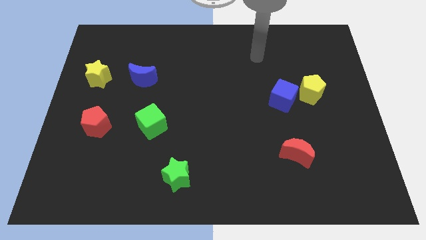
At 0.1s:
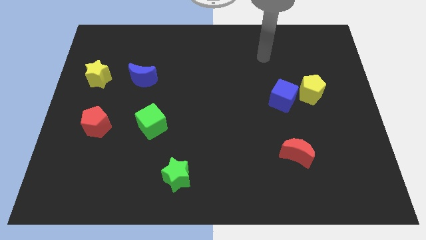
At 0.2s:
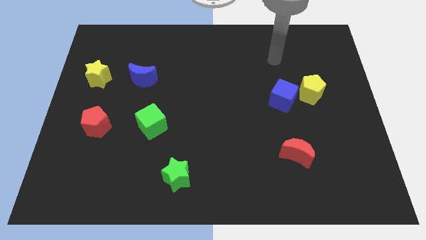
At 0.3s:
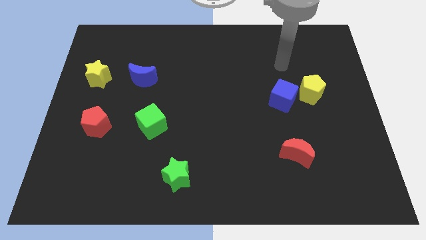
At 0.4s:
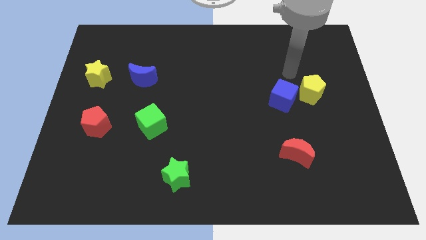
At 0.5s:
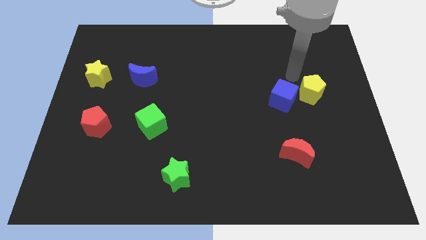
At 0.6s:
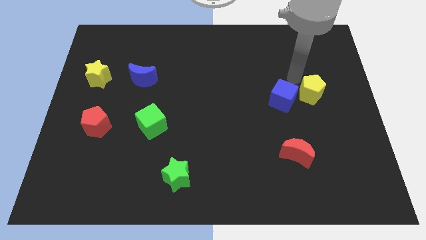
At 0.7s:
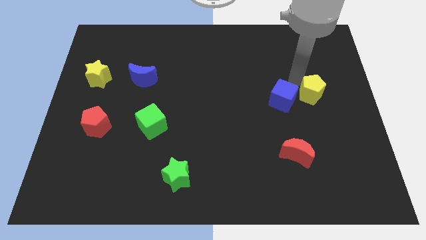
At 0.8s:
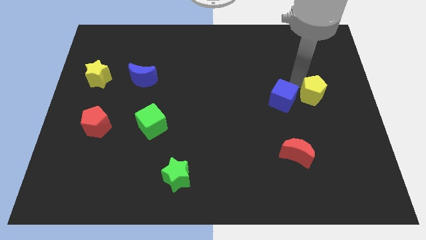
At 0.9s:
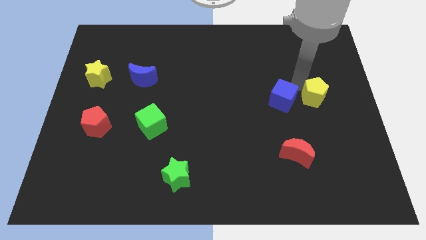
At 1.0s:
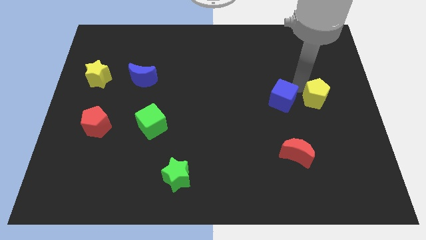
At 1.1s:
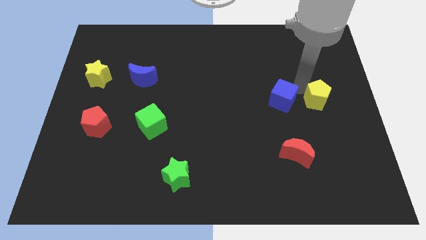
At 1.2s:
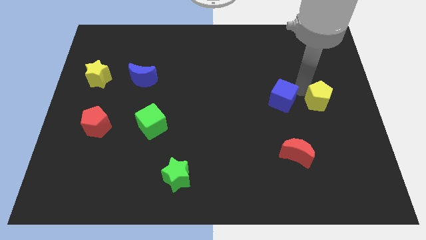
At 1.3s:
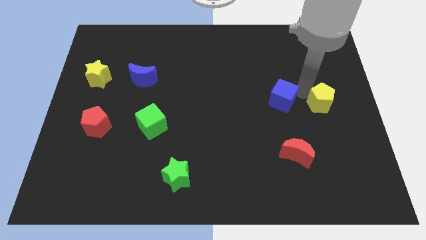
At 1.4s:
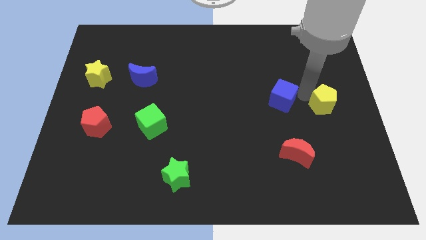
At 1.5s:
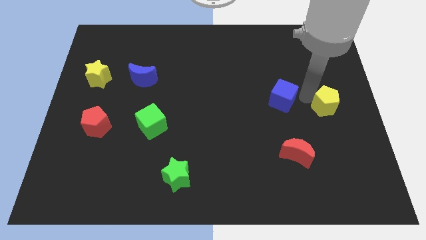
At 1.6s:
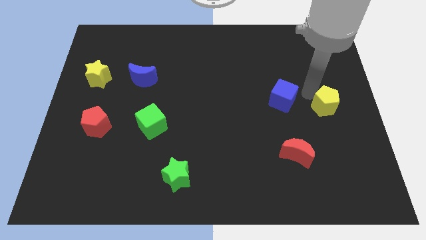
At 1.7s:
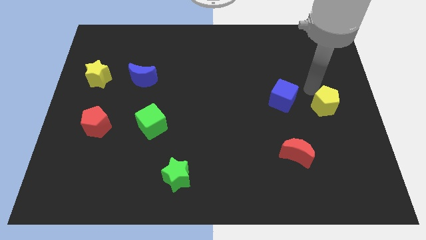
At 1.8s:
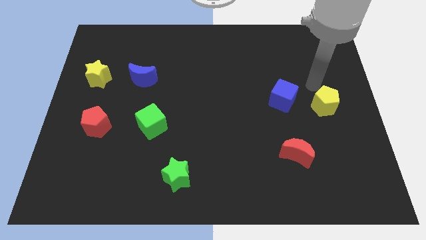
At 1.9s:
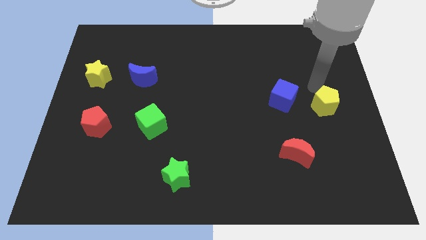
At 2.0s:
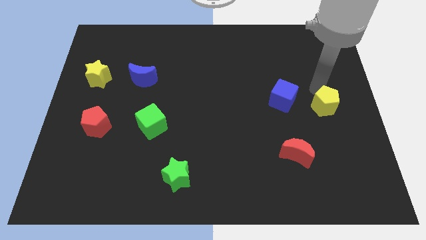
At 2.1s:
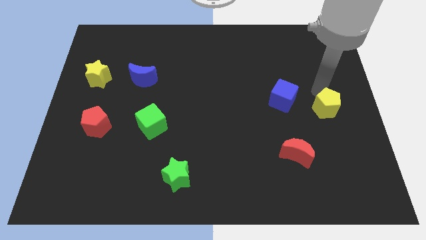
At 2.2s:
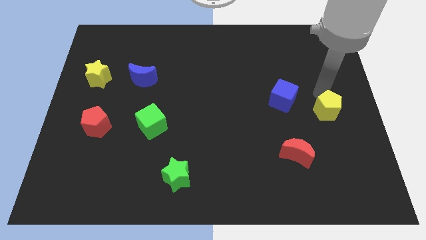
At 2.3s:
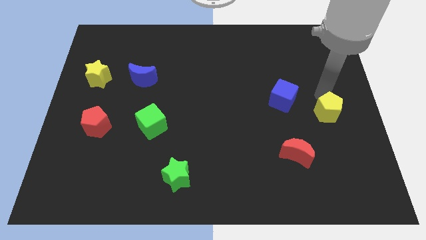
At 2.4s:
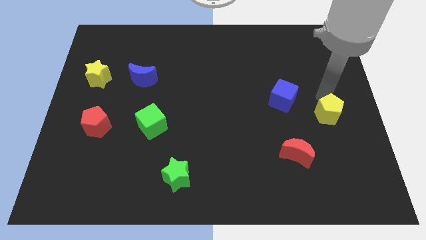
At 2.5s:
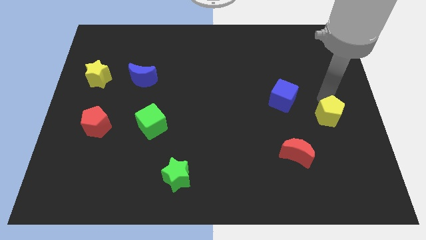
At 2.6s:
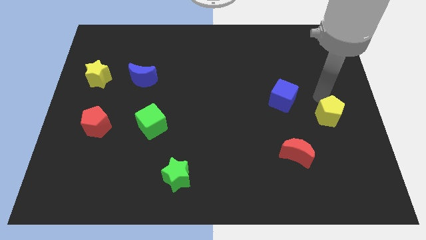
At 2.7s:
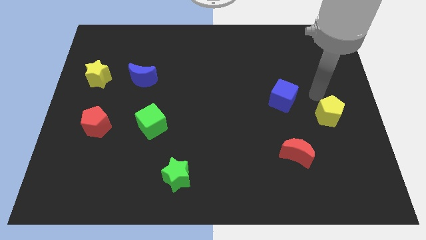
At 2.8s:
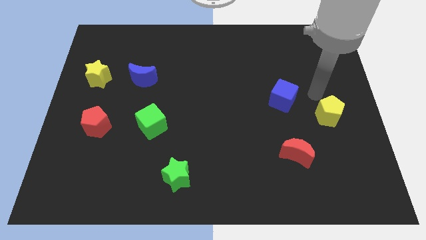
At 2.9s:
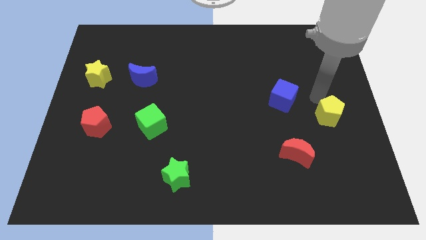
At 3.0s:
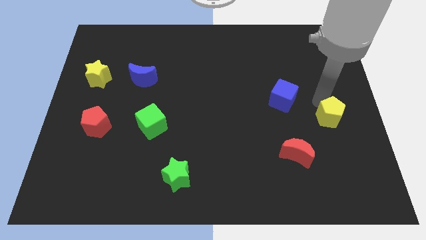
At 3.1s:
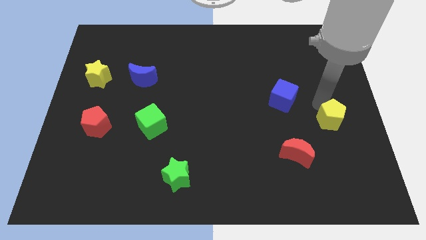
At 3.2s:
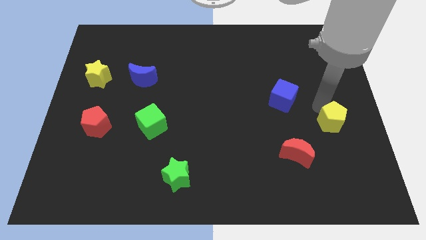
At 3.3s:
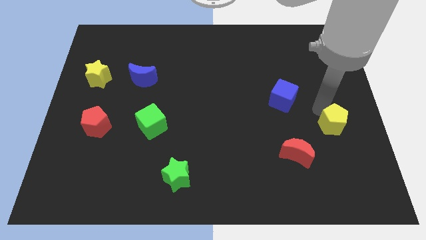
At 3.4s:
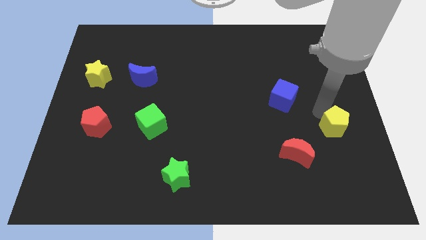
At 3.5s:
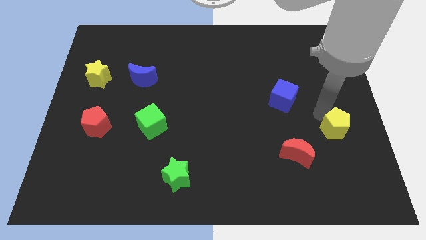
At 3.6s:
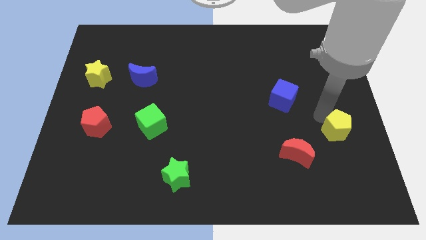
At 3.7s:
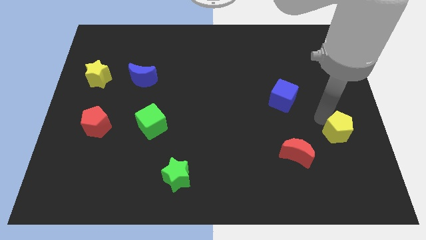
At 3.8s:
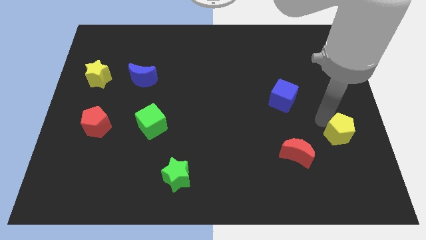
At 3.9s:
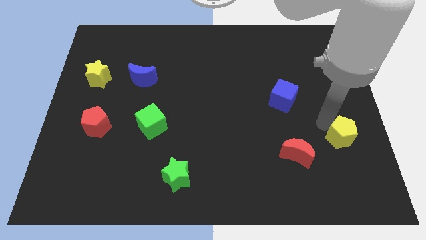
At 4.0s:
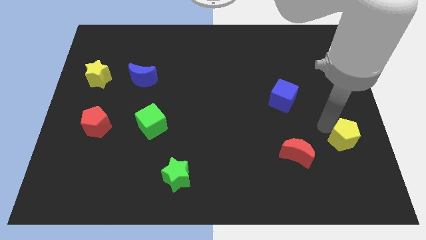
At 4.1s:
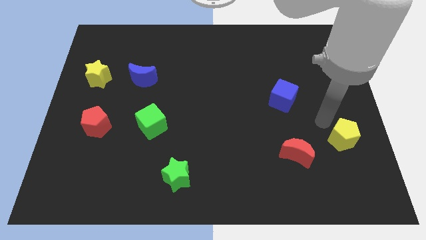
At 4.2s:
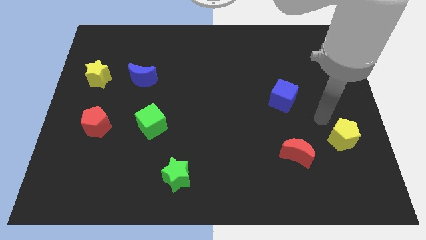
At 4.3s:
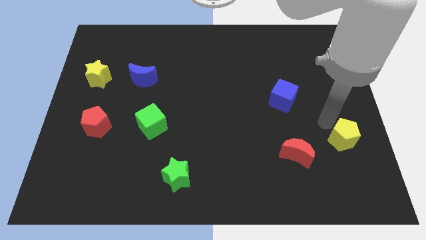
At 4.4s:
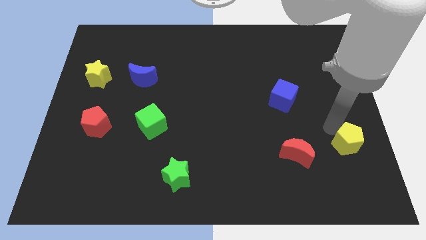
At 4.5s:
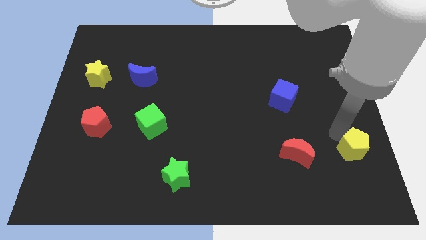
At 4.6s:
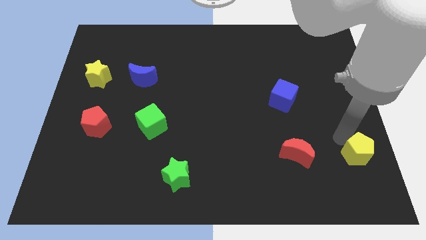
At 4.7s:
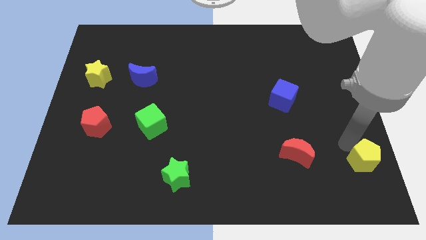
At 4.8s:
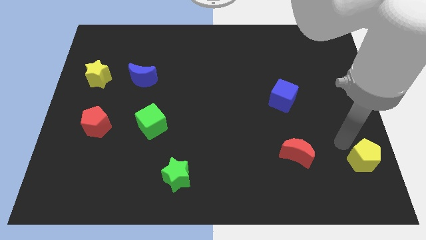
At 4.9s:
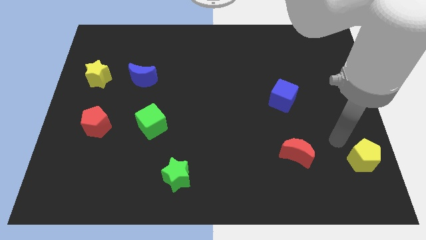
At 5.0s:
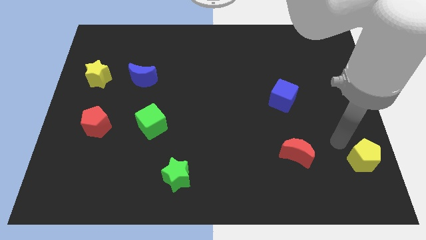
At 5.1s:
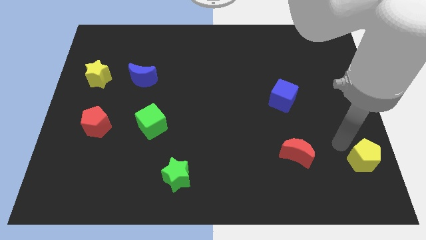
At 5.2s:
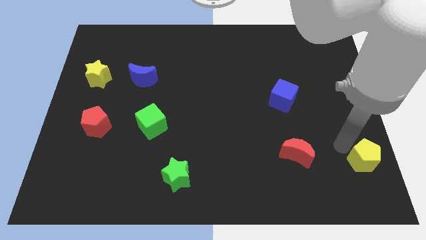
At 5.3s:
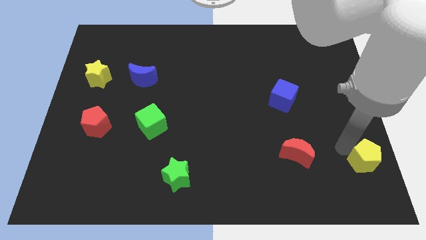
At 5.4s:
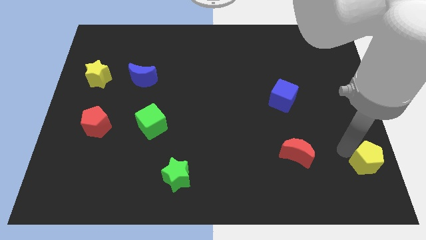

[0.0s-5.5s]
slide the yellow pentagon to the bottom right of the board

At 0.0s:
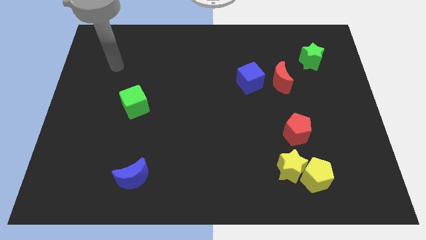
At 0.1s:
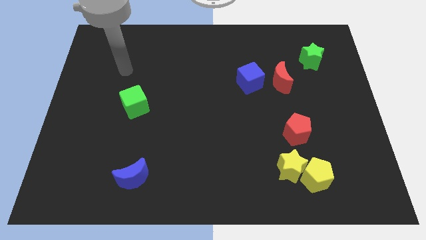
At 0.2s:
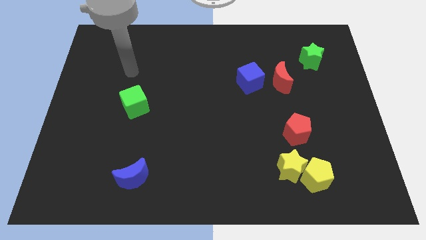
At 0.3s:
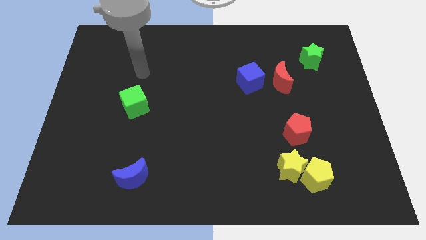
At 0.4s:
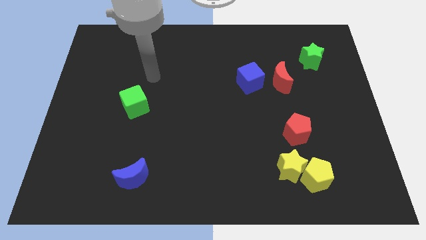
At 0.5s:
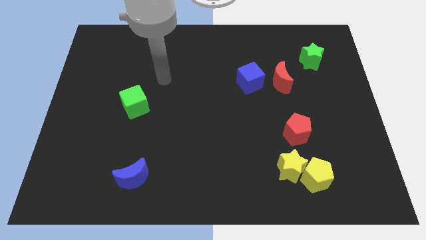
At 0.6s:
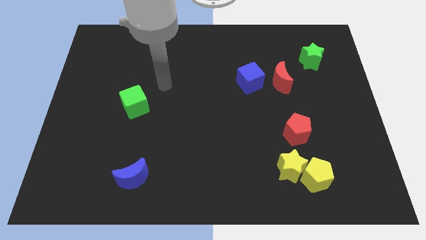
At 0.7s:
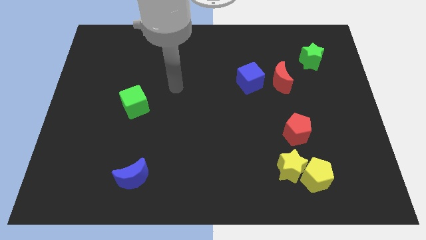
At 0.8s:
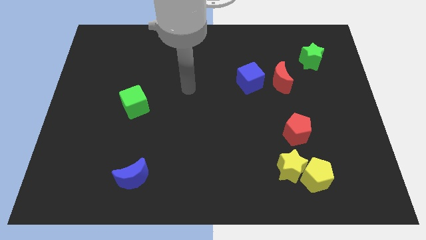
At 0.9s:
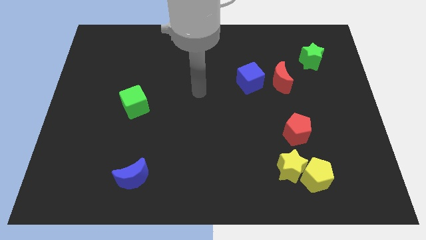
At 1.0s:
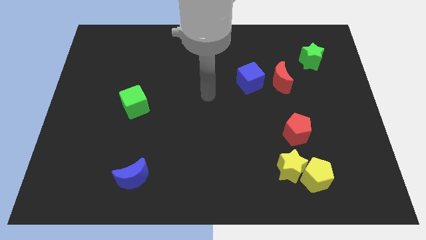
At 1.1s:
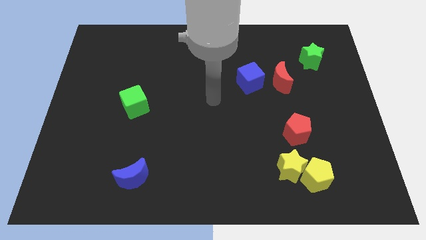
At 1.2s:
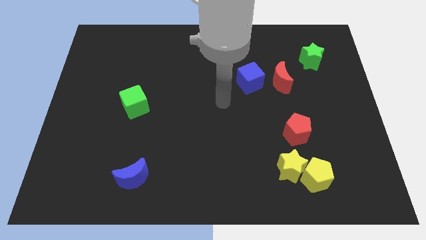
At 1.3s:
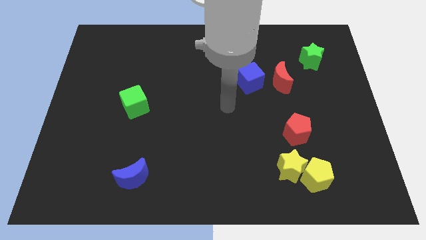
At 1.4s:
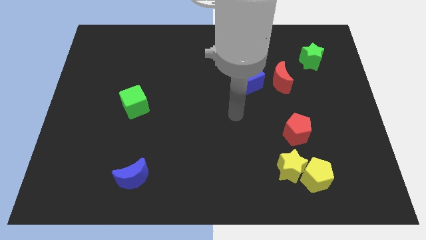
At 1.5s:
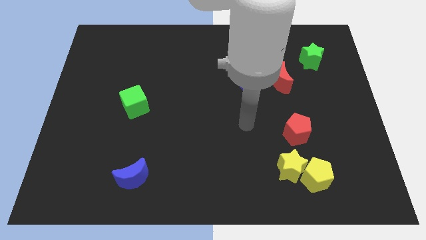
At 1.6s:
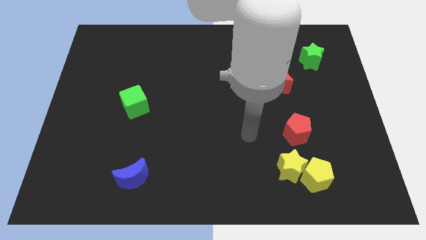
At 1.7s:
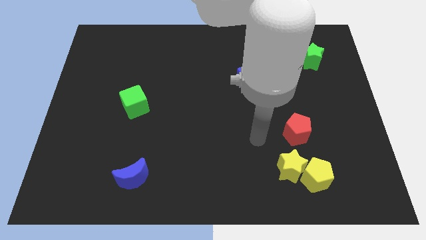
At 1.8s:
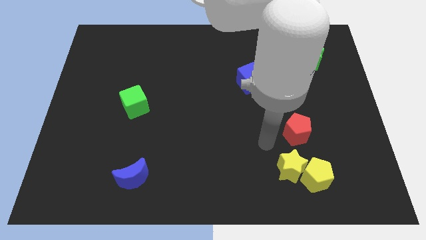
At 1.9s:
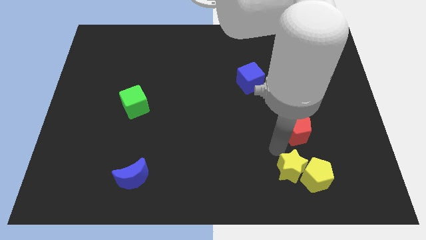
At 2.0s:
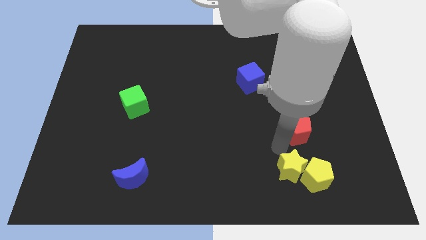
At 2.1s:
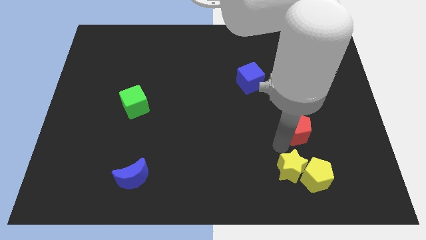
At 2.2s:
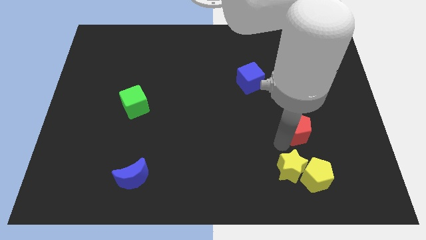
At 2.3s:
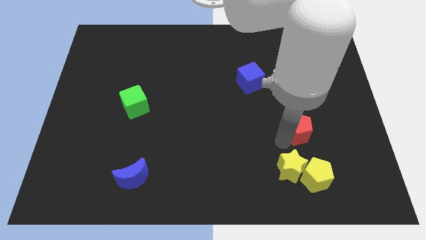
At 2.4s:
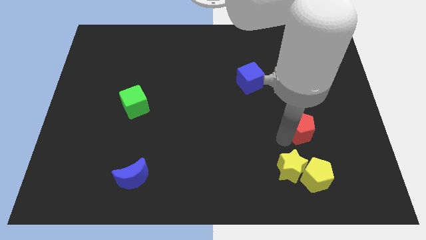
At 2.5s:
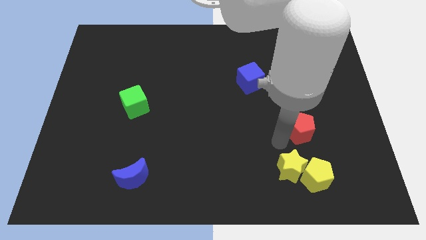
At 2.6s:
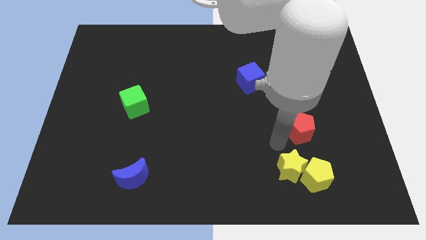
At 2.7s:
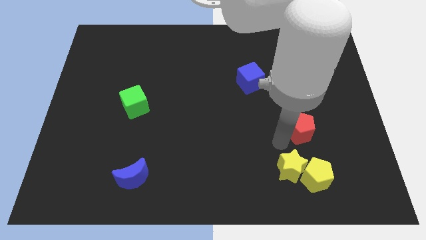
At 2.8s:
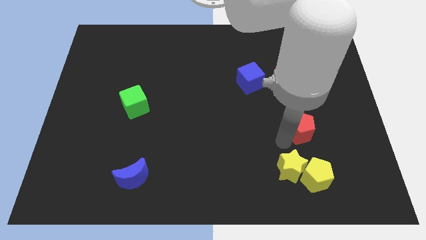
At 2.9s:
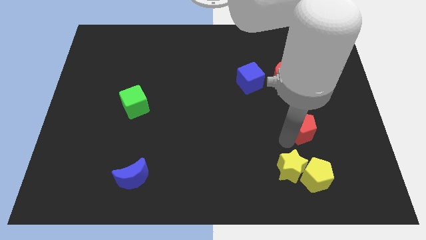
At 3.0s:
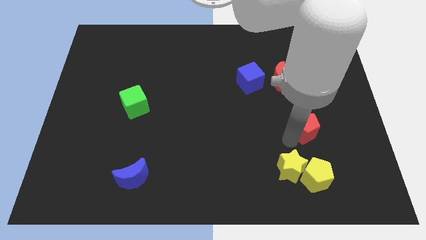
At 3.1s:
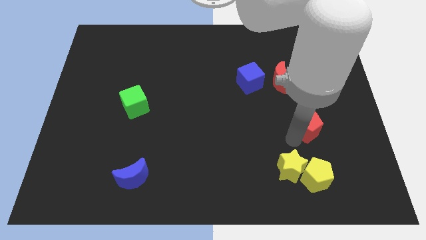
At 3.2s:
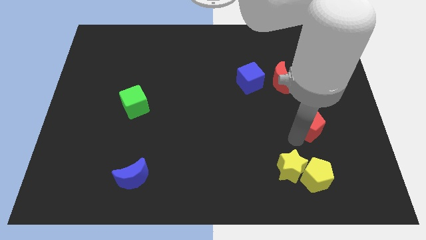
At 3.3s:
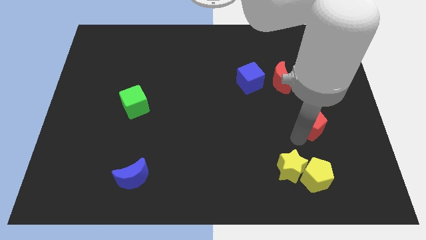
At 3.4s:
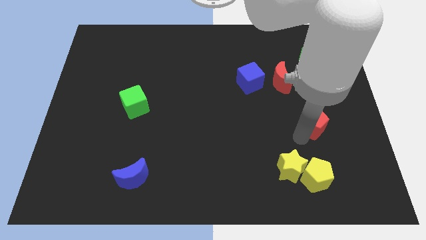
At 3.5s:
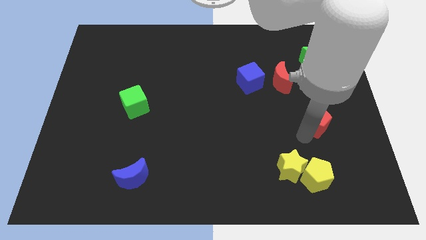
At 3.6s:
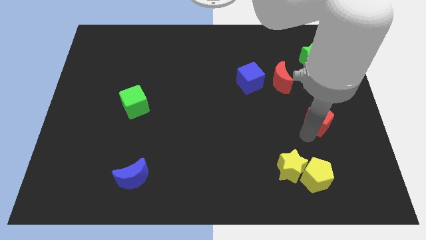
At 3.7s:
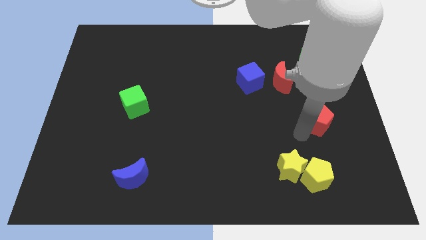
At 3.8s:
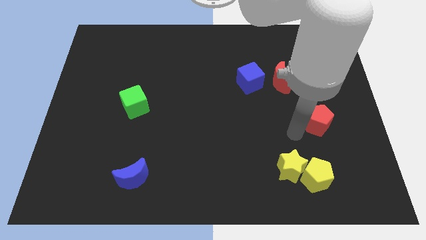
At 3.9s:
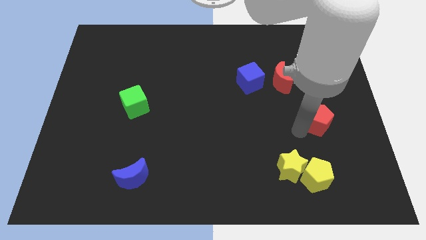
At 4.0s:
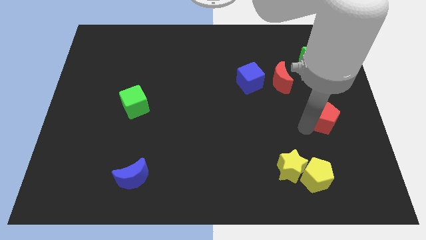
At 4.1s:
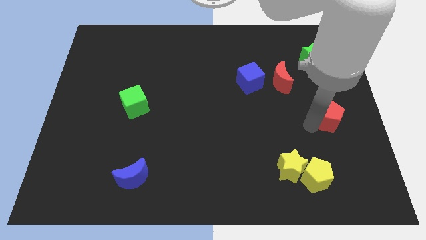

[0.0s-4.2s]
slide the red pentagon to the right side
